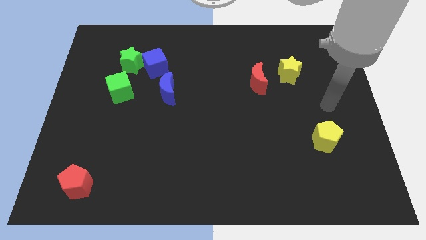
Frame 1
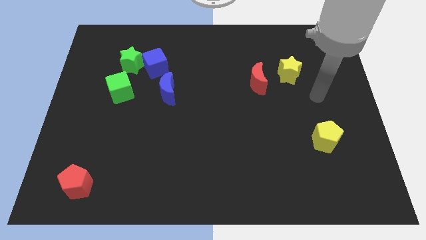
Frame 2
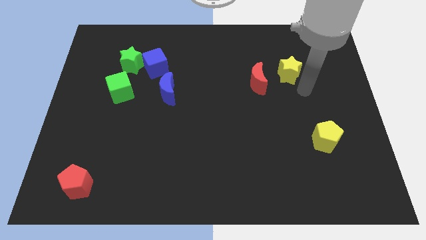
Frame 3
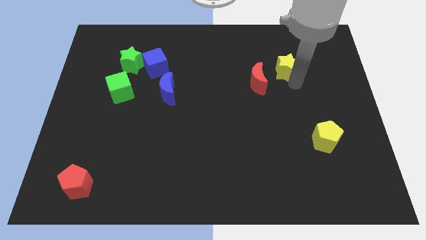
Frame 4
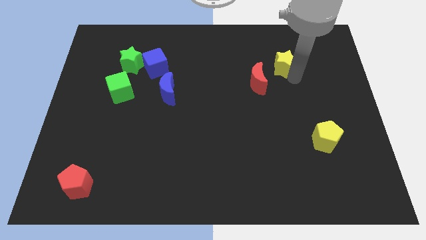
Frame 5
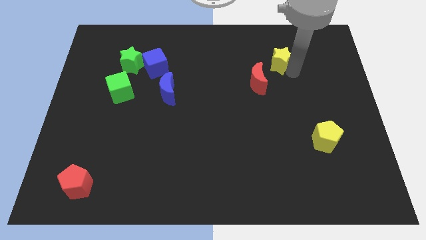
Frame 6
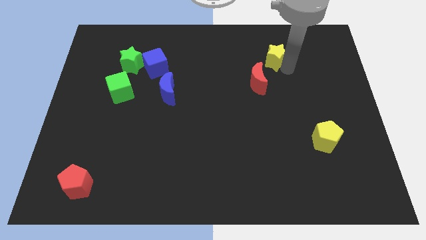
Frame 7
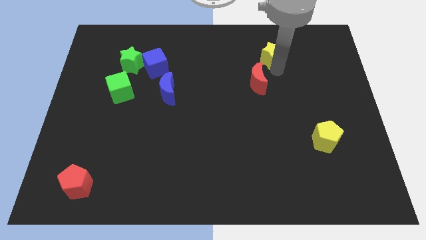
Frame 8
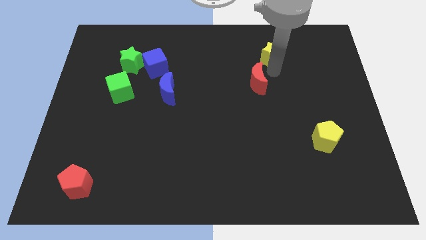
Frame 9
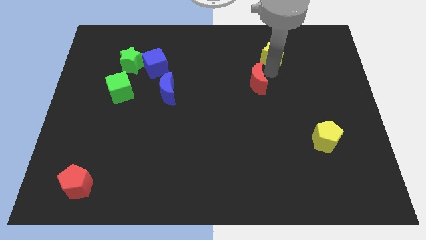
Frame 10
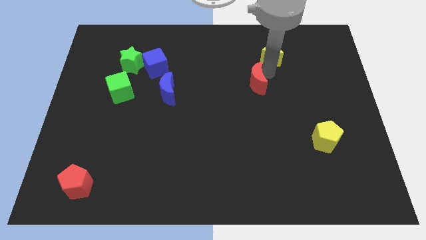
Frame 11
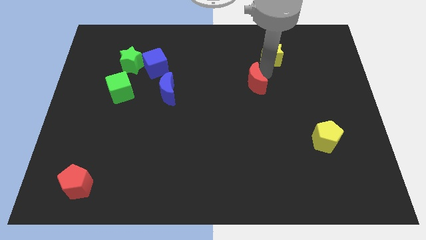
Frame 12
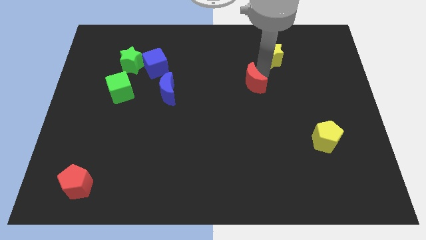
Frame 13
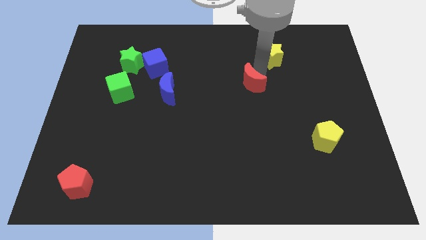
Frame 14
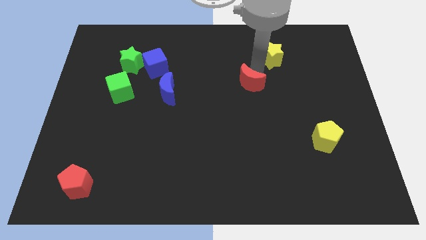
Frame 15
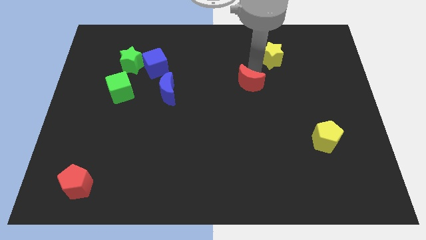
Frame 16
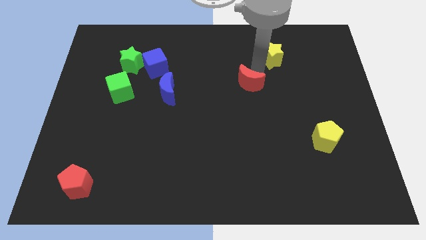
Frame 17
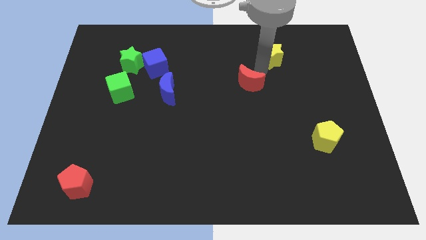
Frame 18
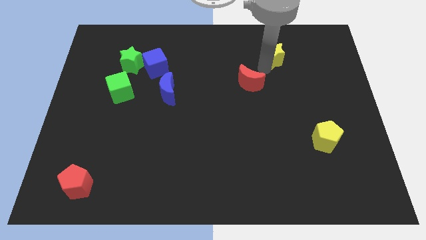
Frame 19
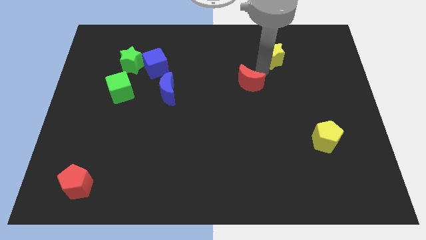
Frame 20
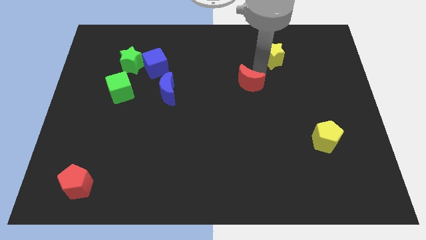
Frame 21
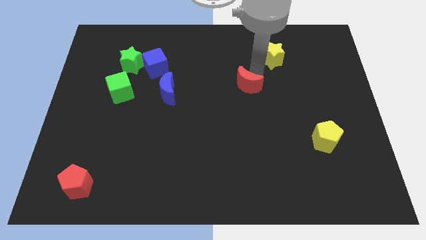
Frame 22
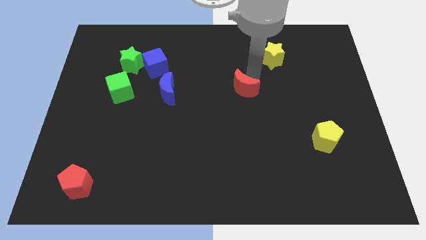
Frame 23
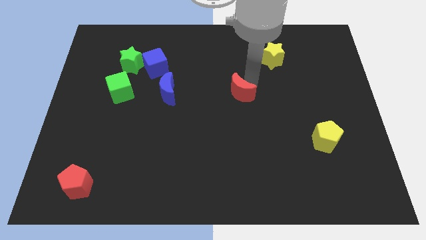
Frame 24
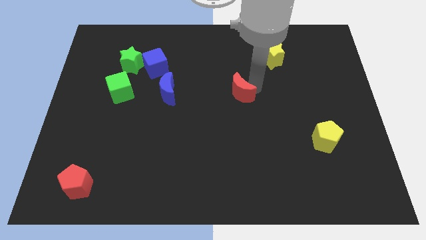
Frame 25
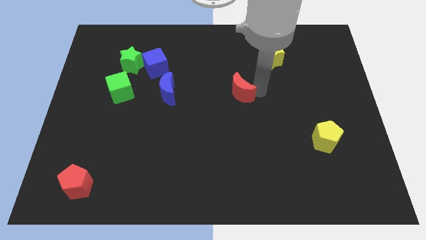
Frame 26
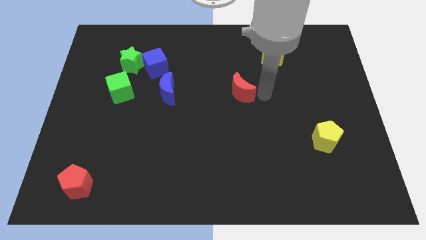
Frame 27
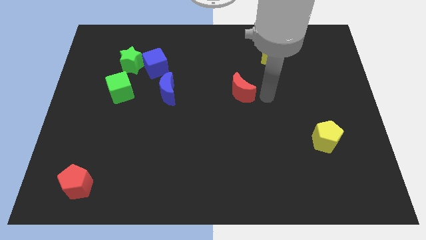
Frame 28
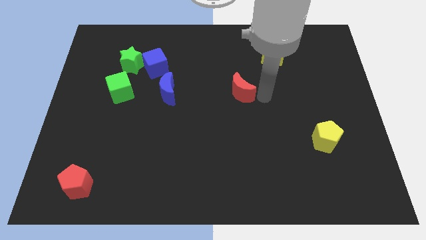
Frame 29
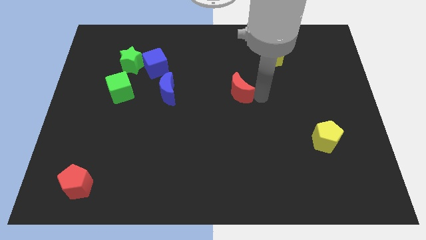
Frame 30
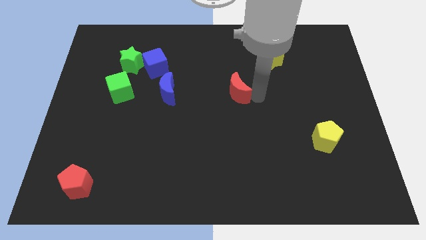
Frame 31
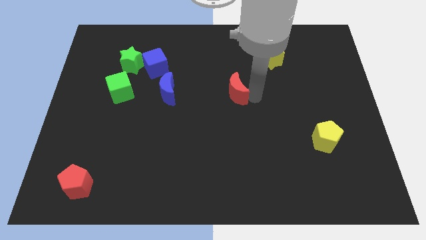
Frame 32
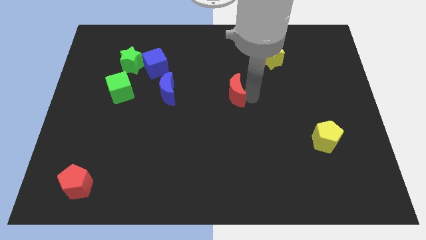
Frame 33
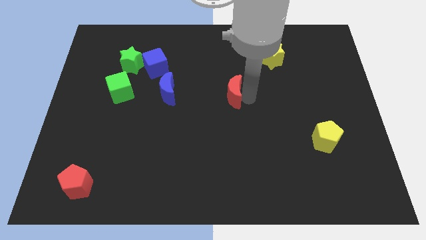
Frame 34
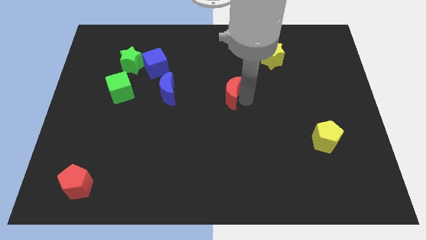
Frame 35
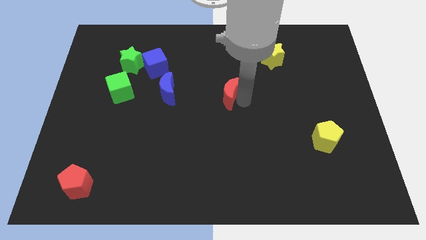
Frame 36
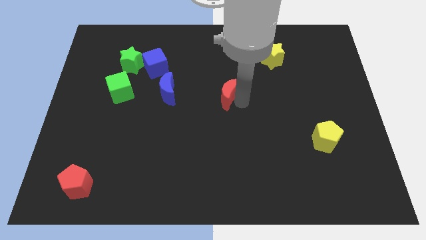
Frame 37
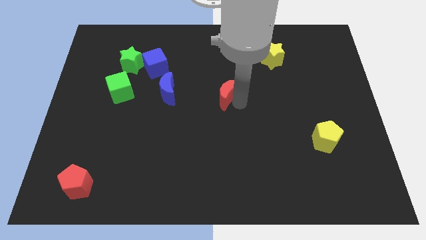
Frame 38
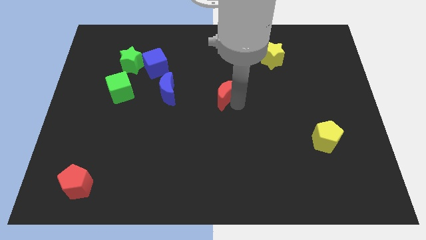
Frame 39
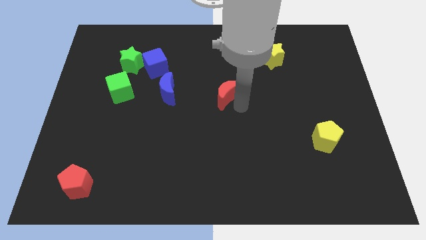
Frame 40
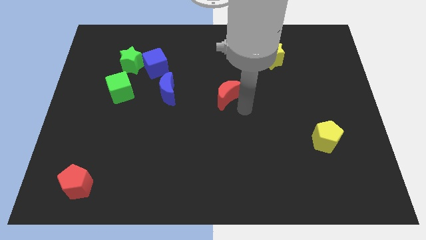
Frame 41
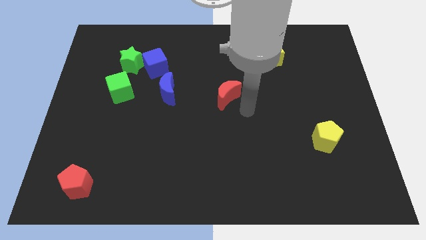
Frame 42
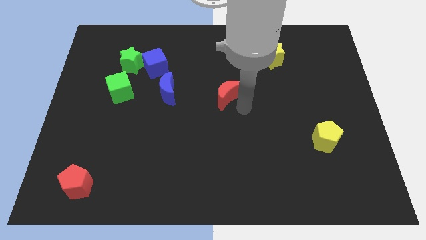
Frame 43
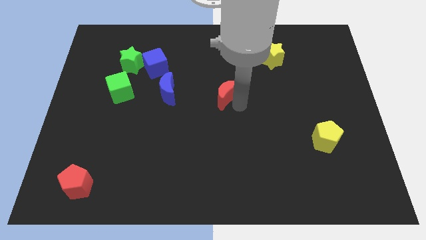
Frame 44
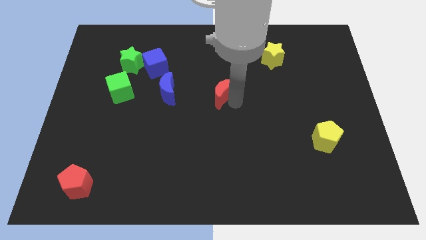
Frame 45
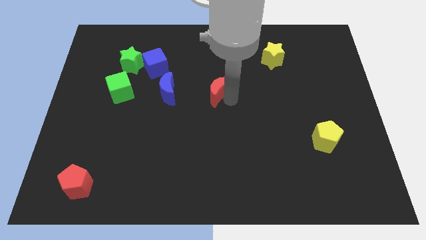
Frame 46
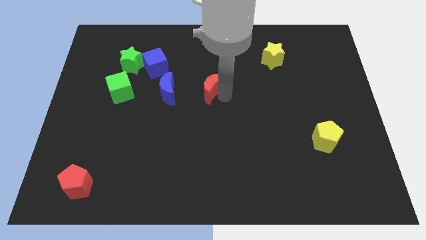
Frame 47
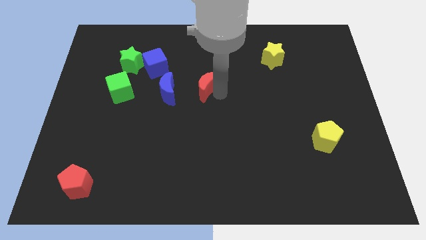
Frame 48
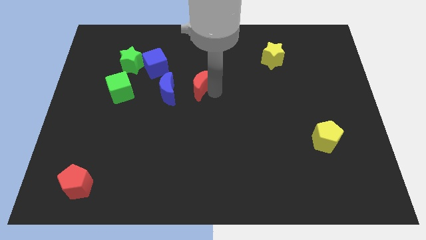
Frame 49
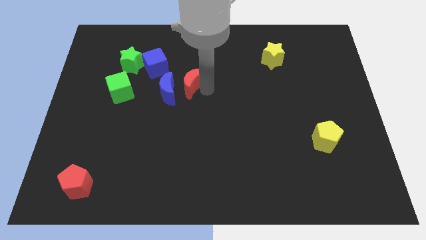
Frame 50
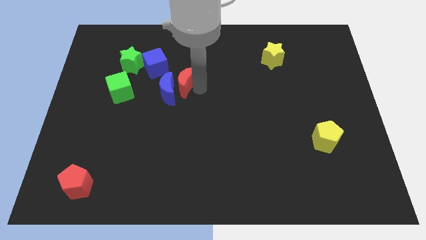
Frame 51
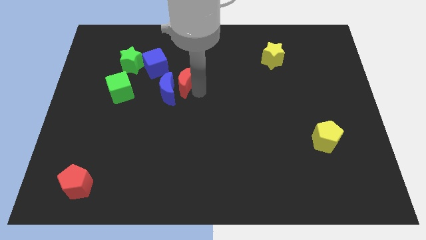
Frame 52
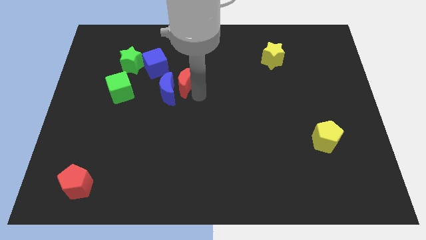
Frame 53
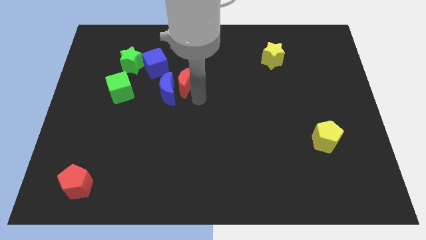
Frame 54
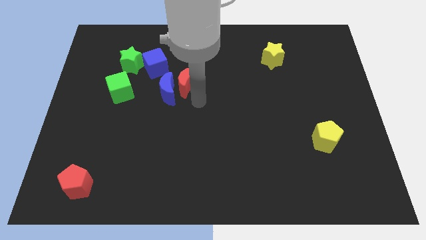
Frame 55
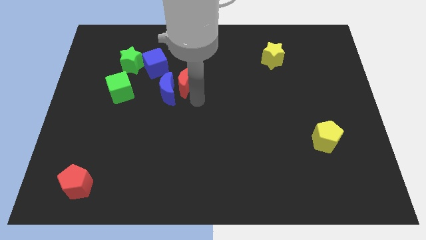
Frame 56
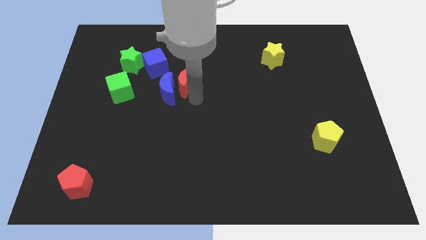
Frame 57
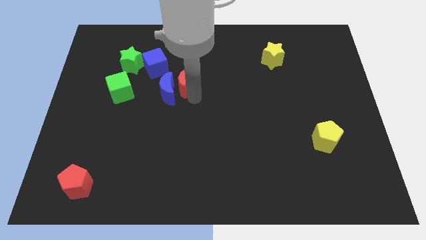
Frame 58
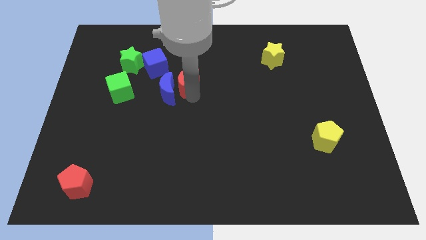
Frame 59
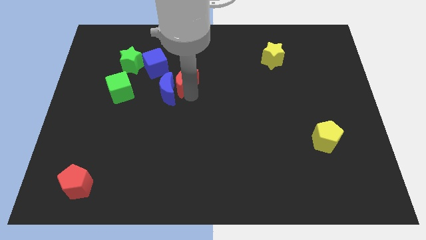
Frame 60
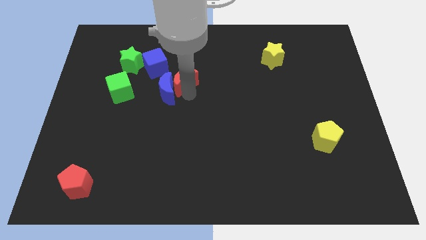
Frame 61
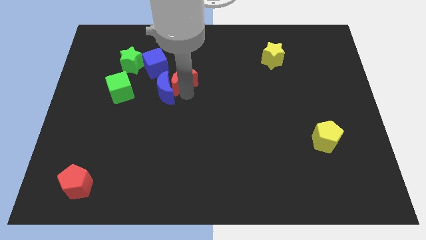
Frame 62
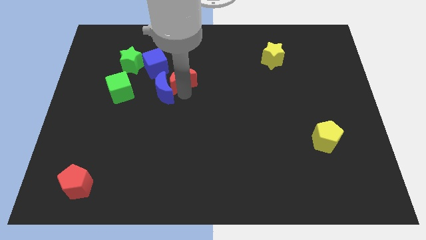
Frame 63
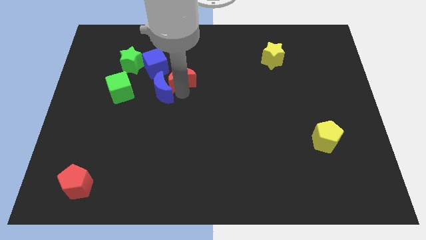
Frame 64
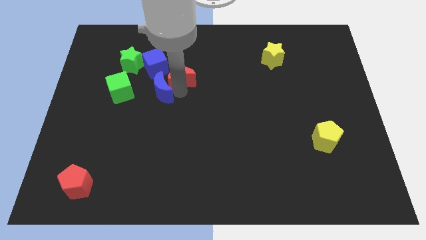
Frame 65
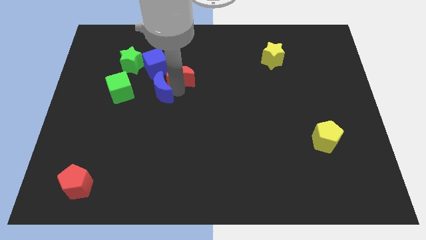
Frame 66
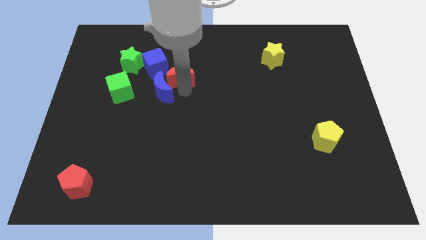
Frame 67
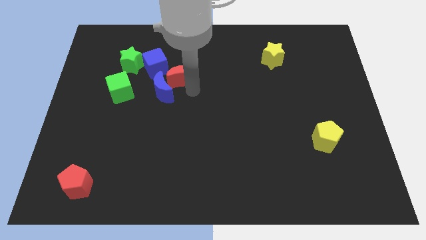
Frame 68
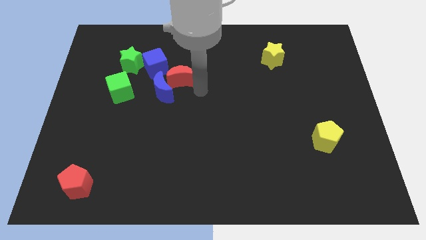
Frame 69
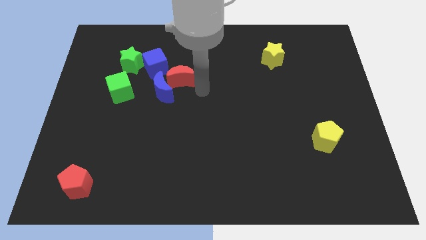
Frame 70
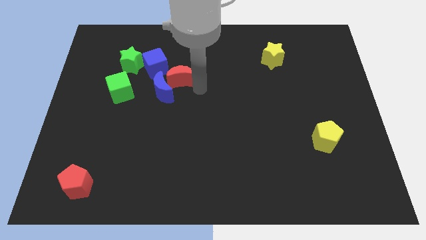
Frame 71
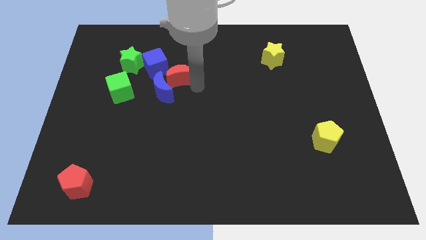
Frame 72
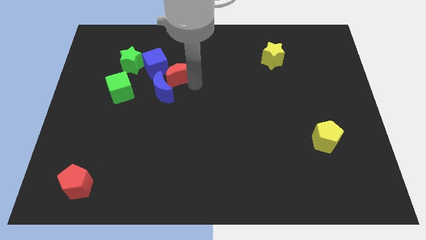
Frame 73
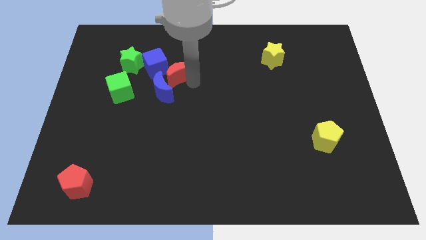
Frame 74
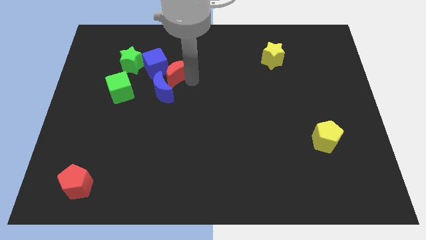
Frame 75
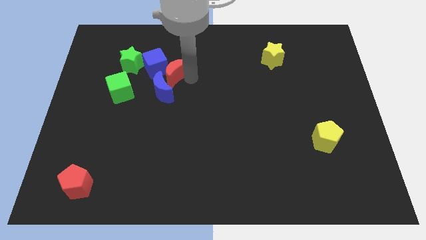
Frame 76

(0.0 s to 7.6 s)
put the red moon close to the blue cube
